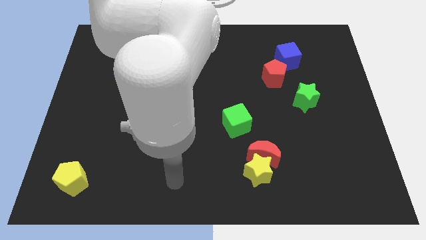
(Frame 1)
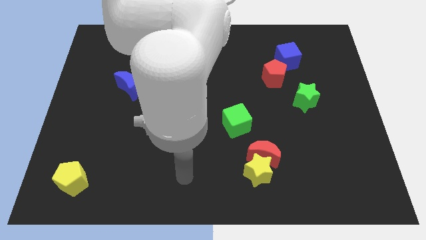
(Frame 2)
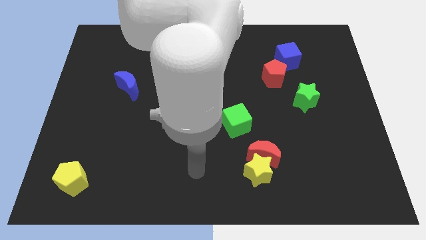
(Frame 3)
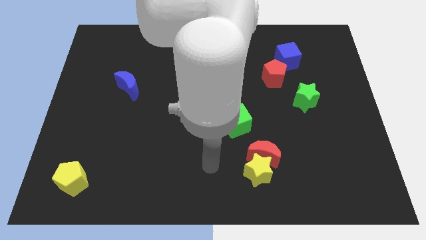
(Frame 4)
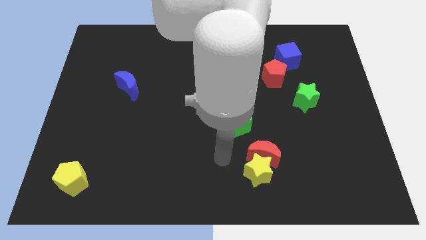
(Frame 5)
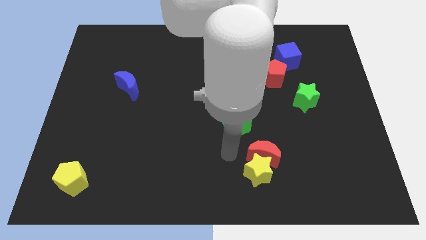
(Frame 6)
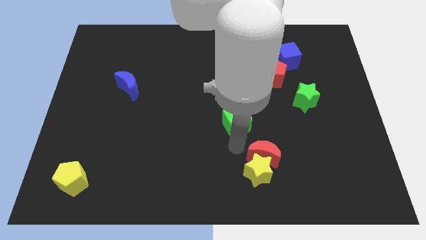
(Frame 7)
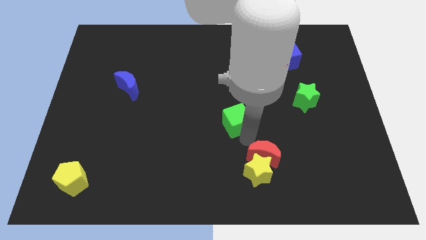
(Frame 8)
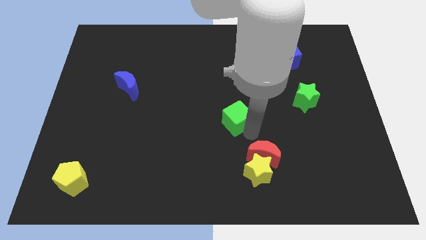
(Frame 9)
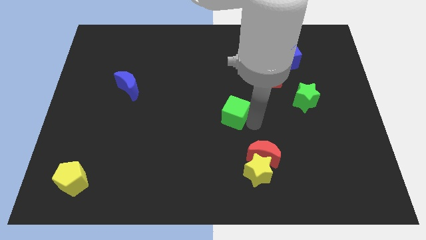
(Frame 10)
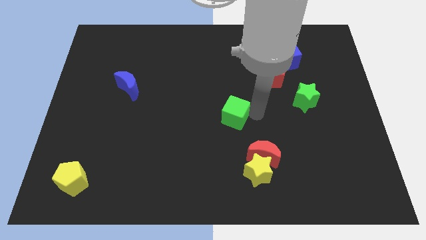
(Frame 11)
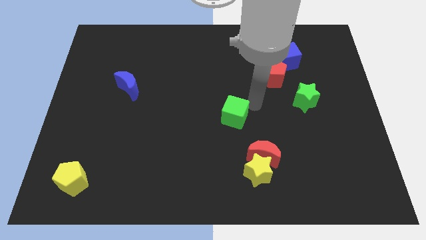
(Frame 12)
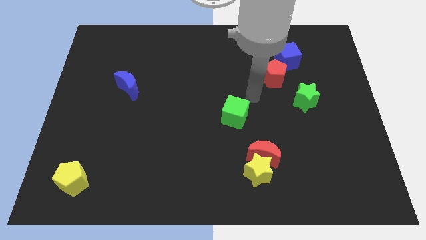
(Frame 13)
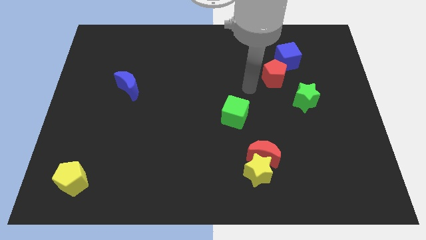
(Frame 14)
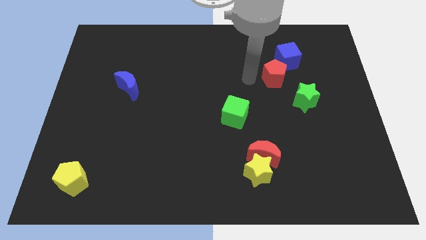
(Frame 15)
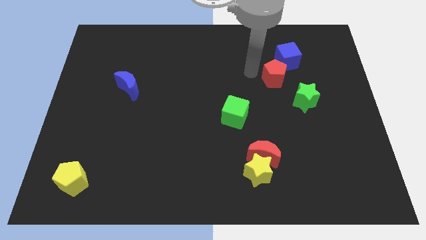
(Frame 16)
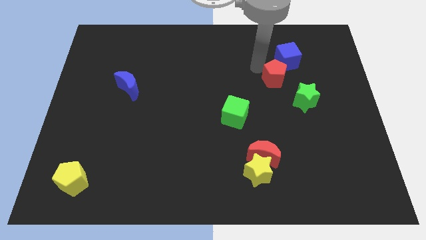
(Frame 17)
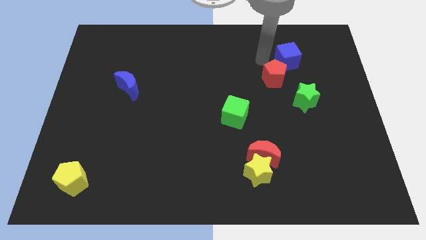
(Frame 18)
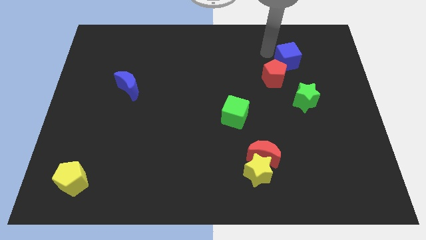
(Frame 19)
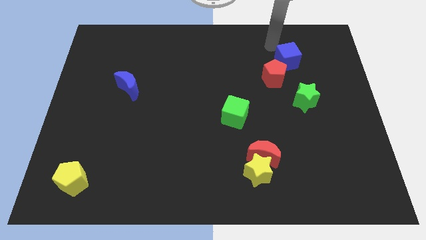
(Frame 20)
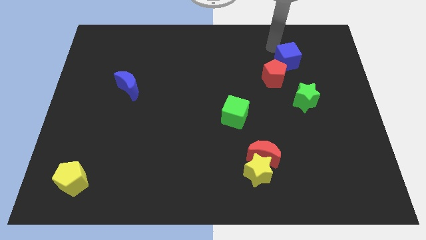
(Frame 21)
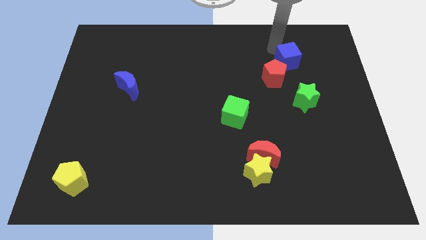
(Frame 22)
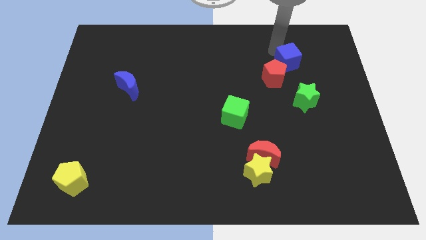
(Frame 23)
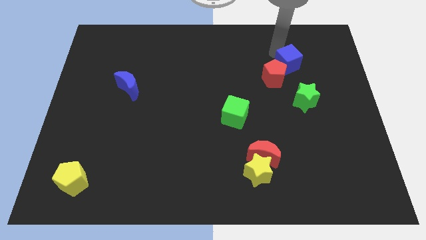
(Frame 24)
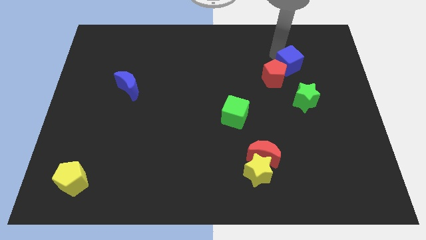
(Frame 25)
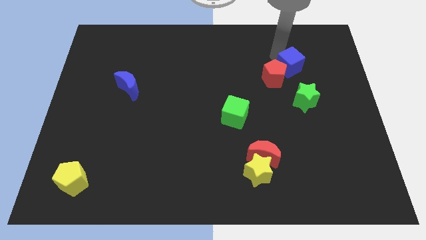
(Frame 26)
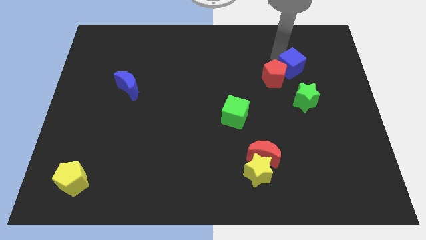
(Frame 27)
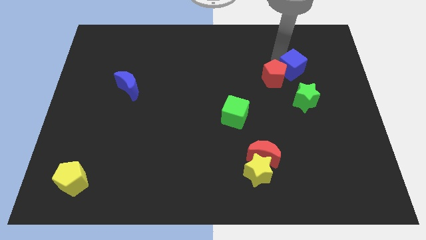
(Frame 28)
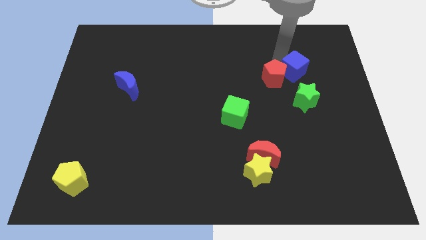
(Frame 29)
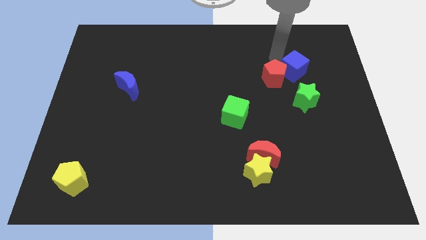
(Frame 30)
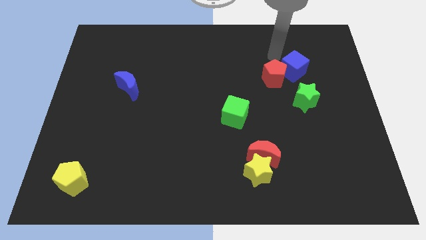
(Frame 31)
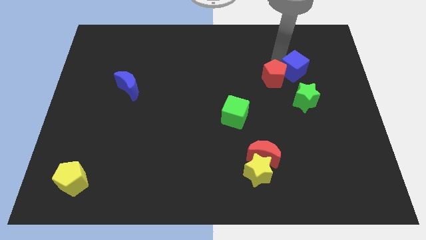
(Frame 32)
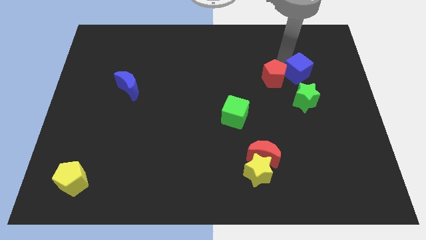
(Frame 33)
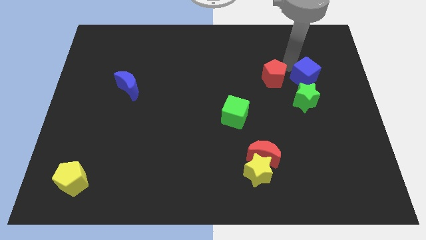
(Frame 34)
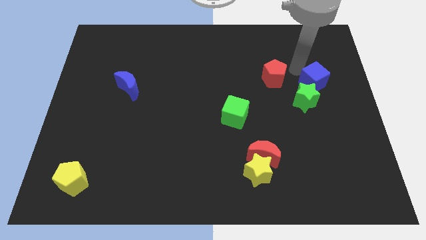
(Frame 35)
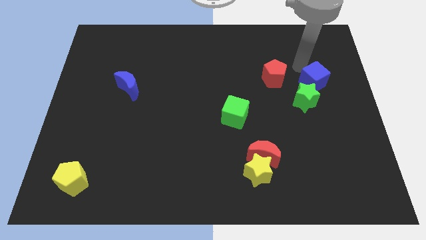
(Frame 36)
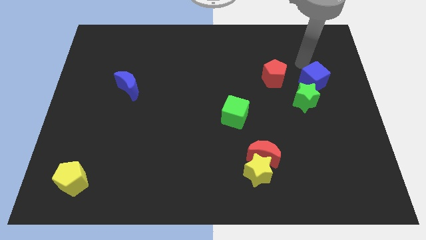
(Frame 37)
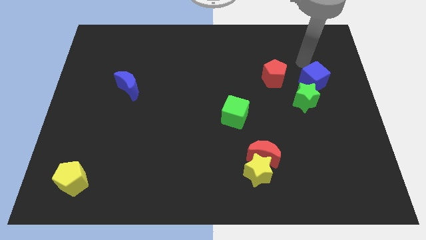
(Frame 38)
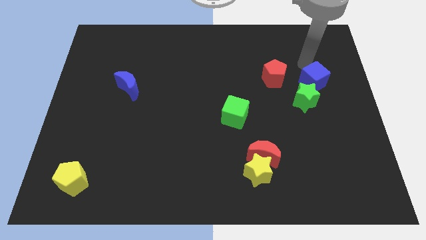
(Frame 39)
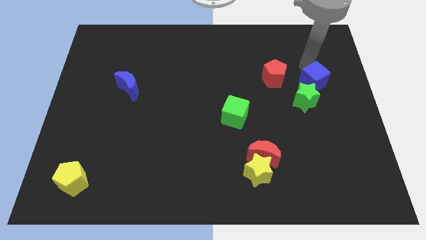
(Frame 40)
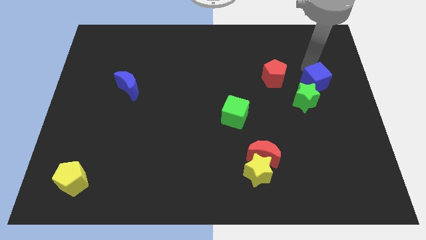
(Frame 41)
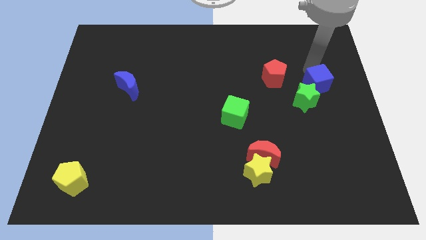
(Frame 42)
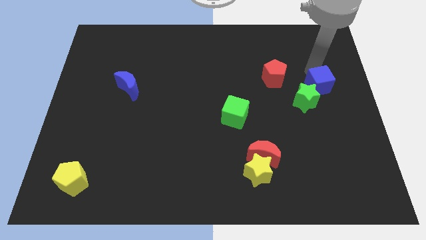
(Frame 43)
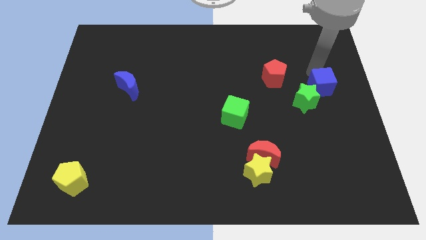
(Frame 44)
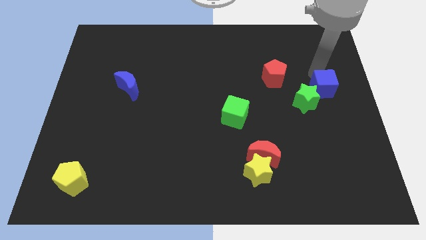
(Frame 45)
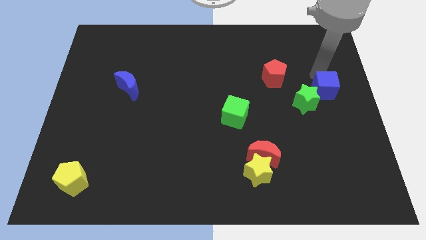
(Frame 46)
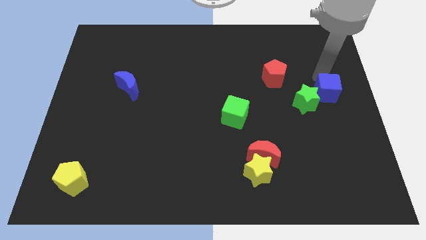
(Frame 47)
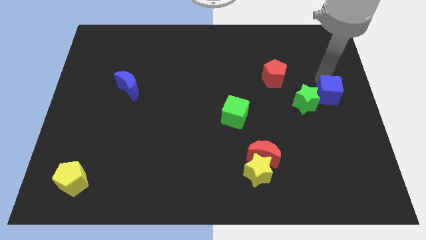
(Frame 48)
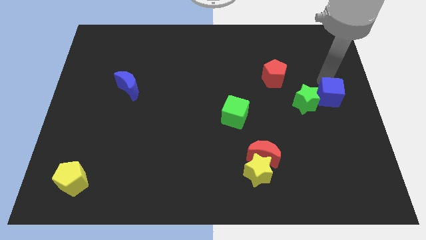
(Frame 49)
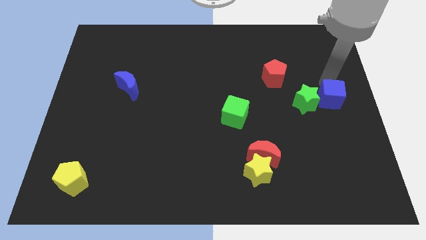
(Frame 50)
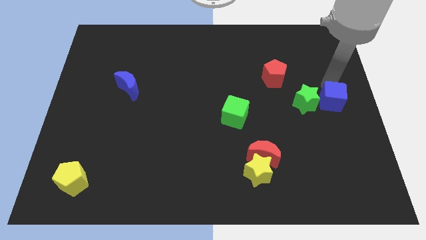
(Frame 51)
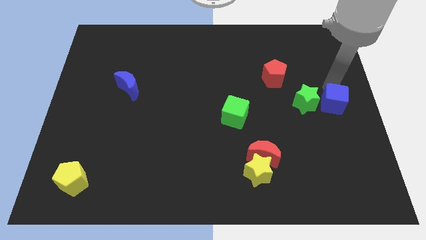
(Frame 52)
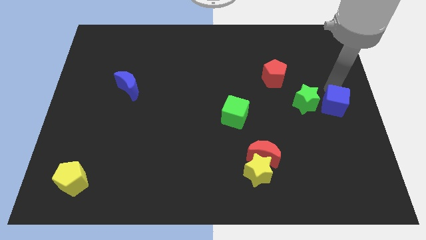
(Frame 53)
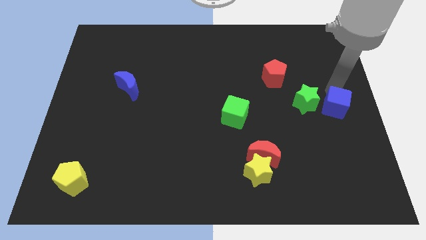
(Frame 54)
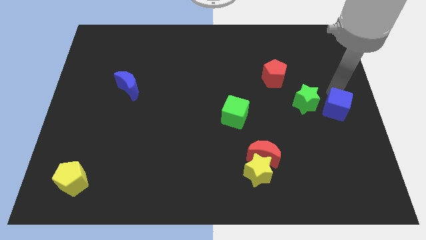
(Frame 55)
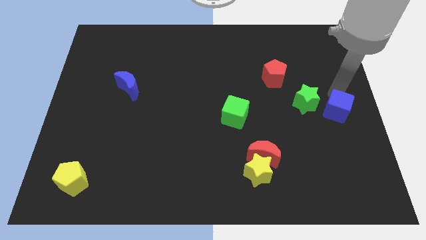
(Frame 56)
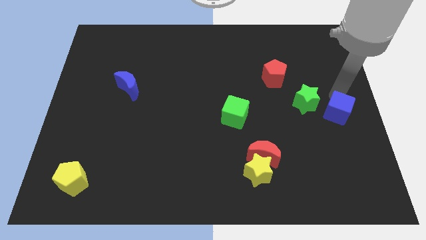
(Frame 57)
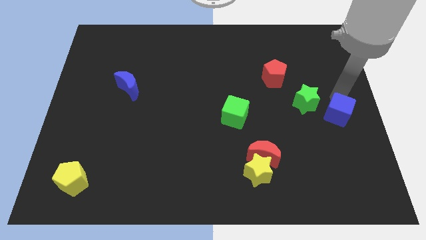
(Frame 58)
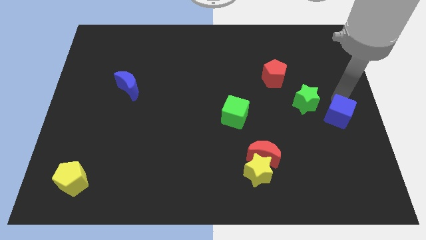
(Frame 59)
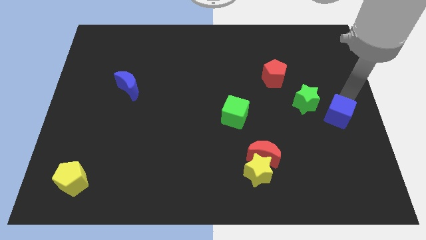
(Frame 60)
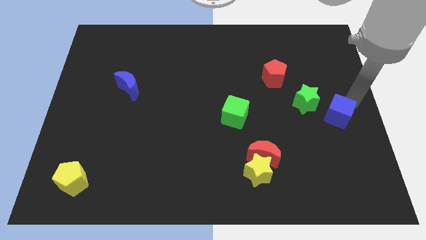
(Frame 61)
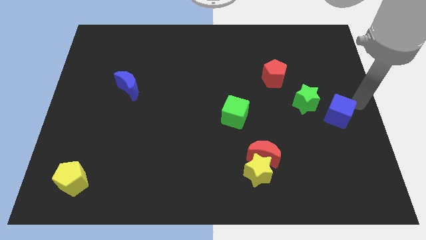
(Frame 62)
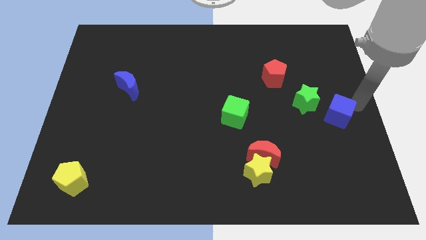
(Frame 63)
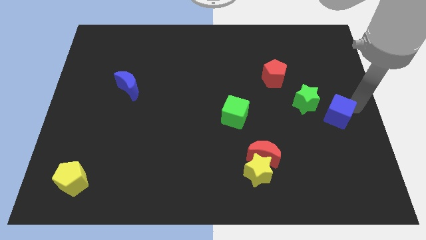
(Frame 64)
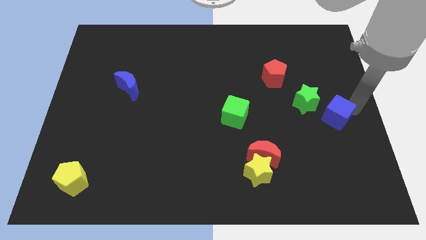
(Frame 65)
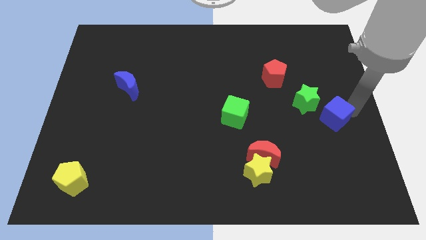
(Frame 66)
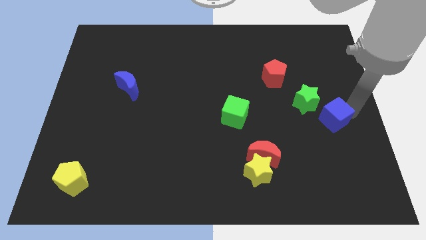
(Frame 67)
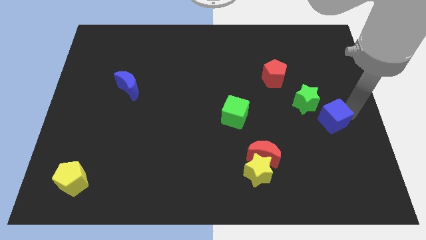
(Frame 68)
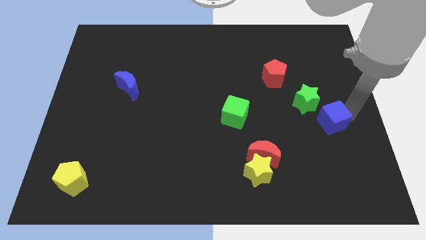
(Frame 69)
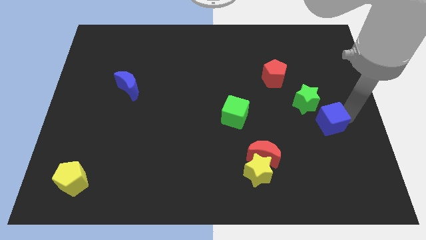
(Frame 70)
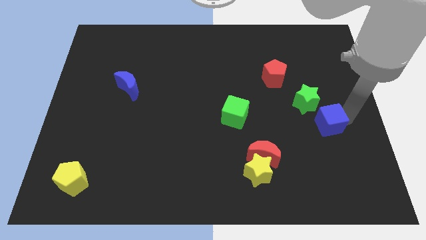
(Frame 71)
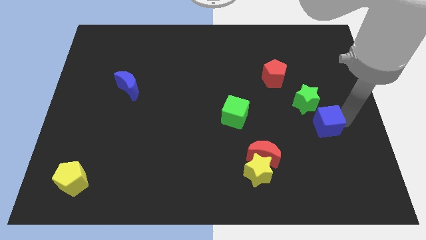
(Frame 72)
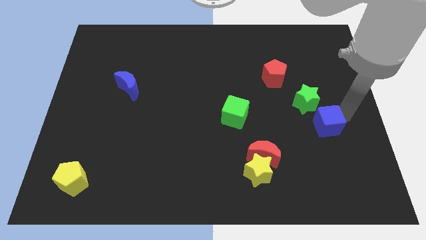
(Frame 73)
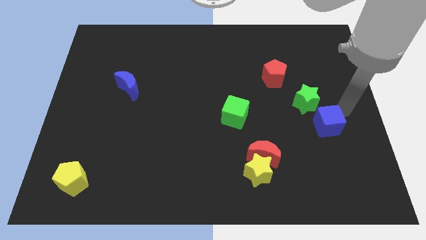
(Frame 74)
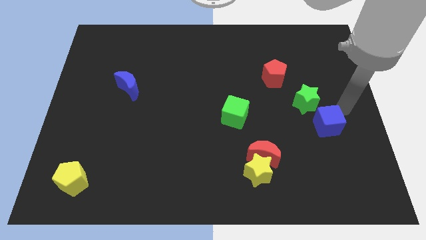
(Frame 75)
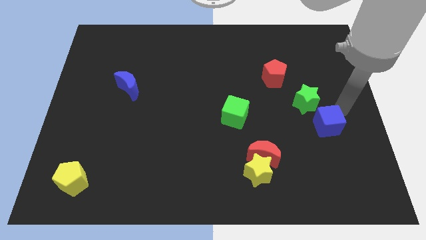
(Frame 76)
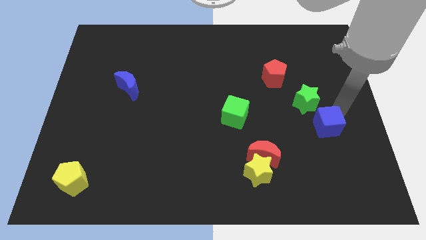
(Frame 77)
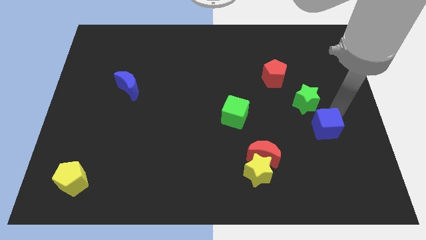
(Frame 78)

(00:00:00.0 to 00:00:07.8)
move the blue cube downwards

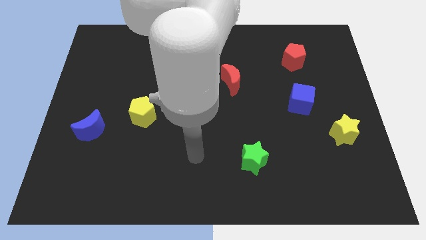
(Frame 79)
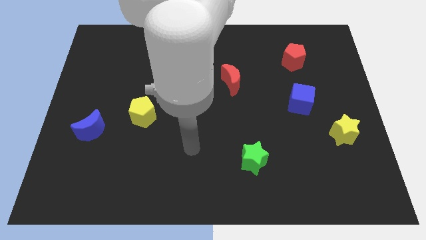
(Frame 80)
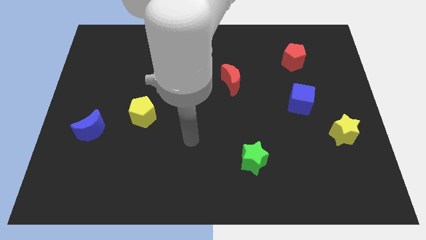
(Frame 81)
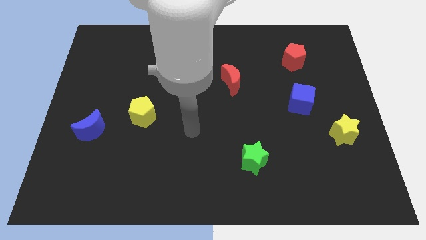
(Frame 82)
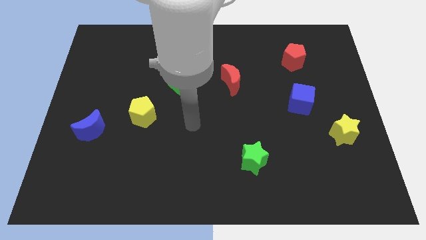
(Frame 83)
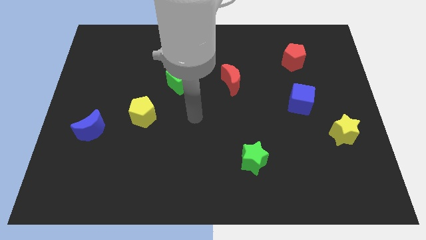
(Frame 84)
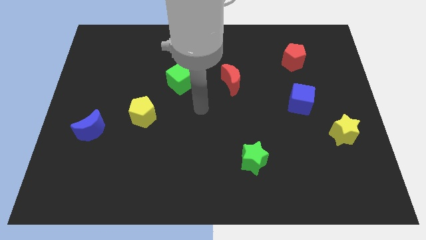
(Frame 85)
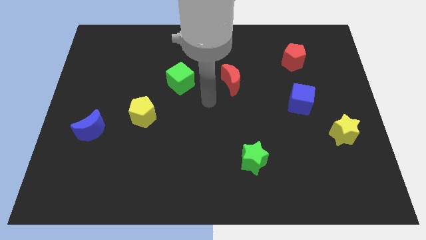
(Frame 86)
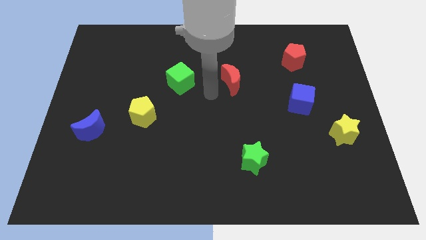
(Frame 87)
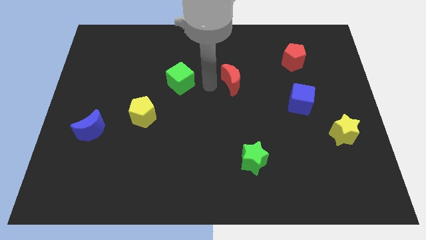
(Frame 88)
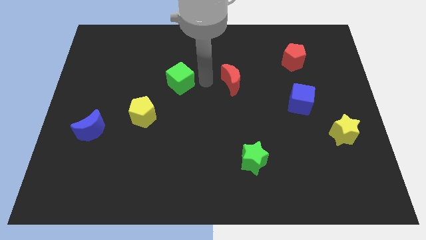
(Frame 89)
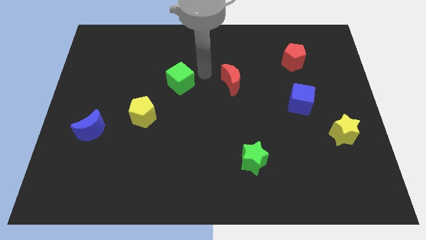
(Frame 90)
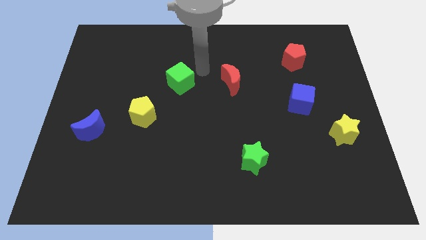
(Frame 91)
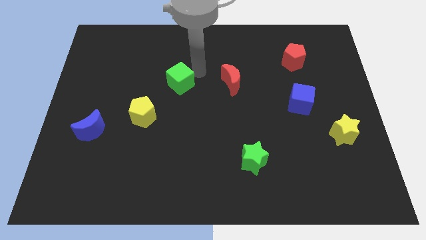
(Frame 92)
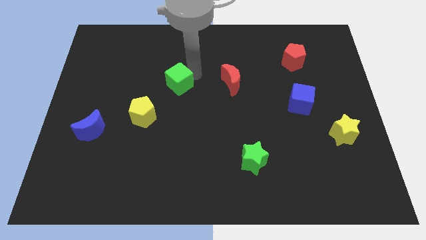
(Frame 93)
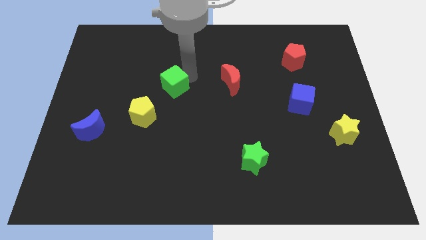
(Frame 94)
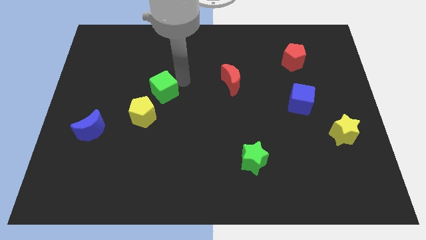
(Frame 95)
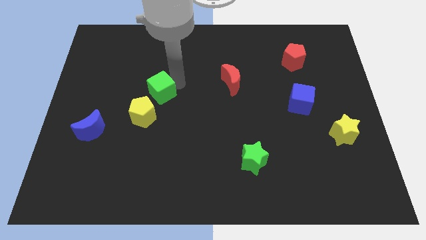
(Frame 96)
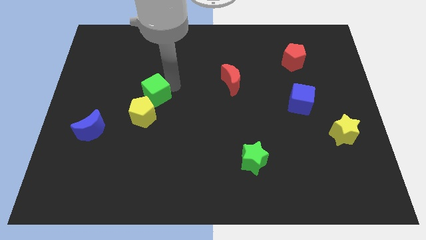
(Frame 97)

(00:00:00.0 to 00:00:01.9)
push the green cube down and to the left diagonally somewhat
